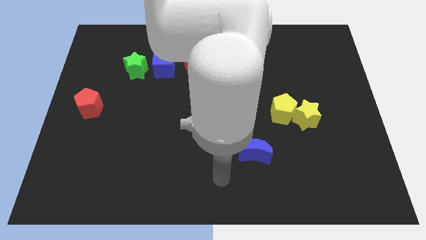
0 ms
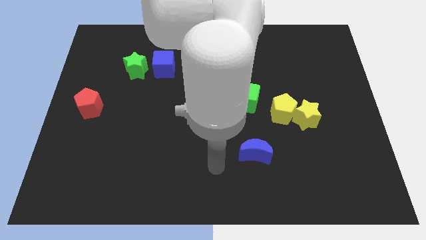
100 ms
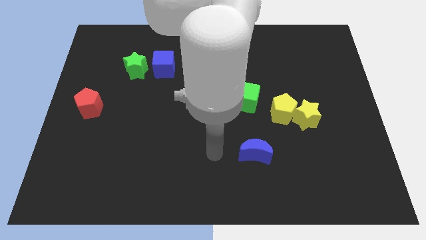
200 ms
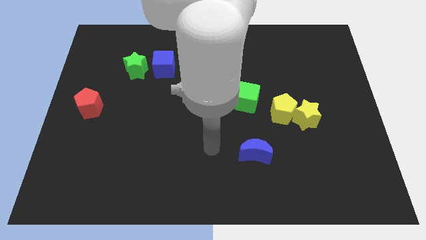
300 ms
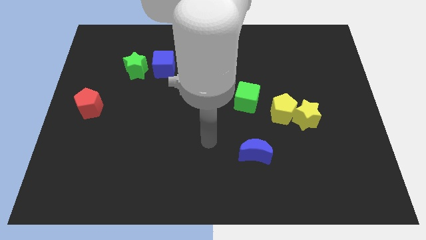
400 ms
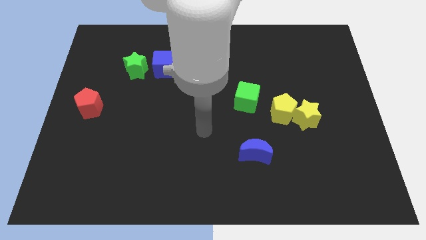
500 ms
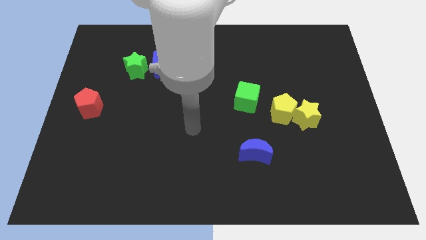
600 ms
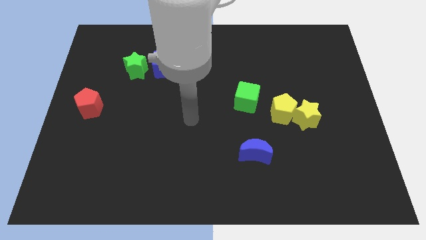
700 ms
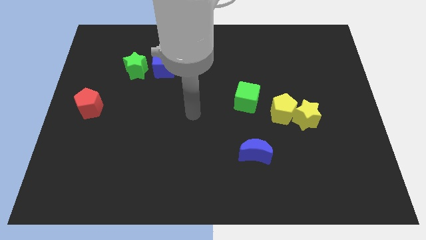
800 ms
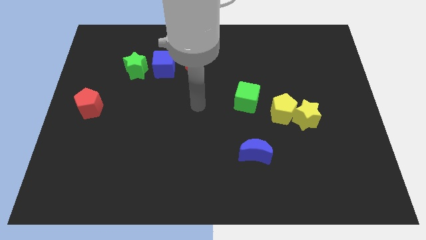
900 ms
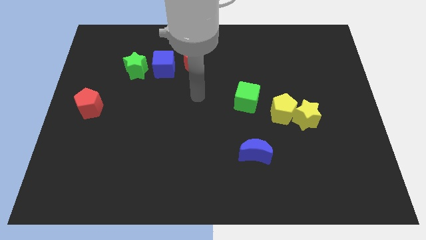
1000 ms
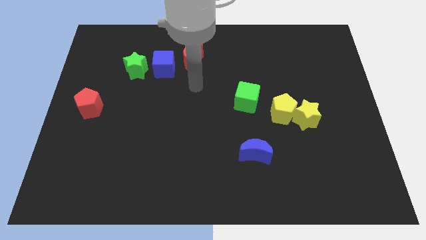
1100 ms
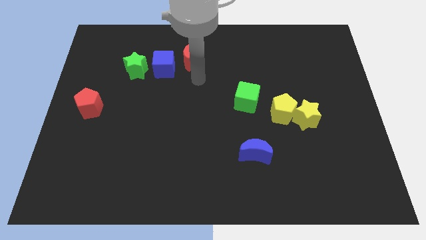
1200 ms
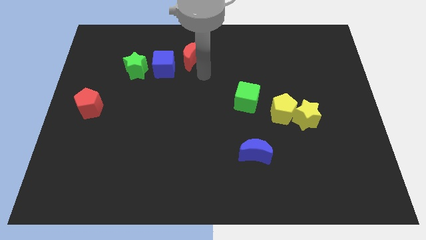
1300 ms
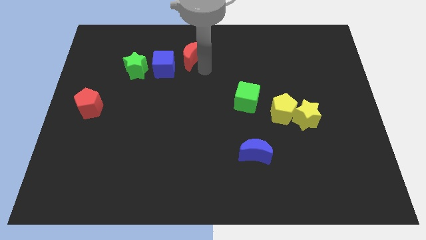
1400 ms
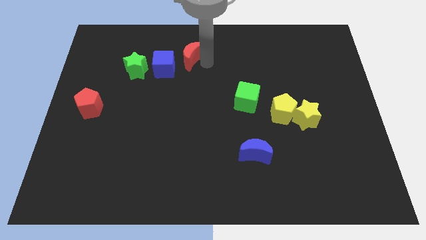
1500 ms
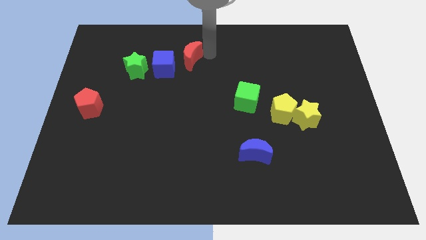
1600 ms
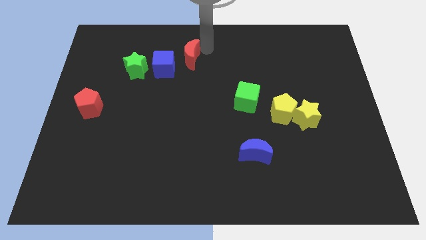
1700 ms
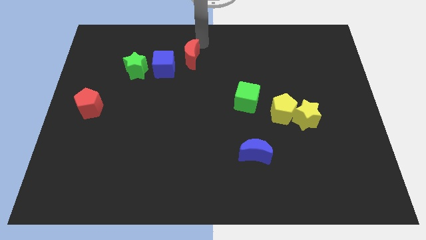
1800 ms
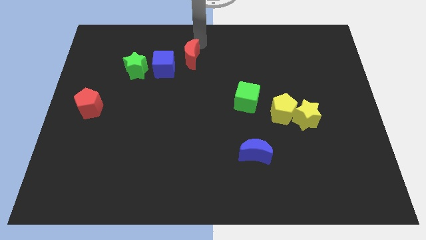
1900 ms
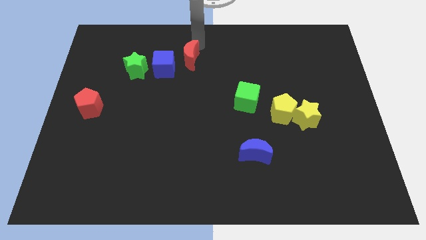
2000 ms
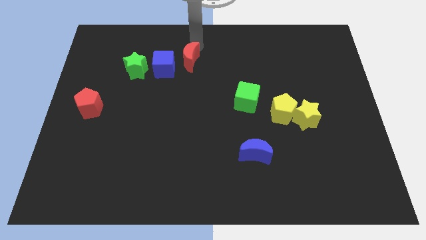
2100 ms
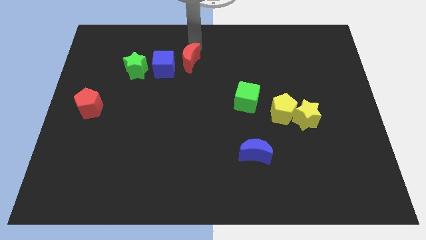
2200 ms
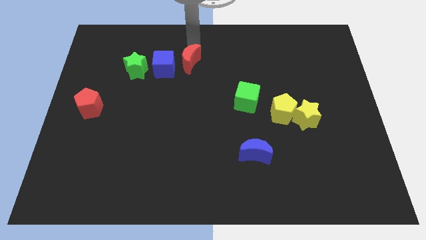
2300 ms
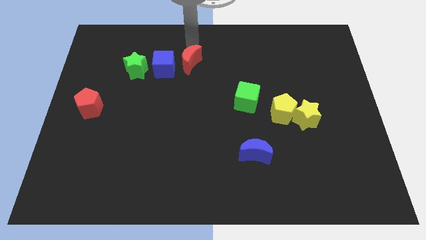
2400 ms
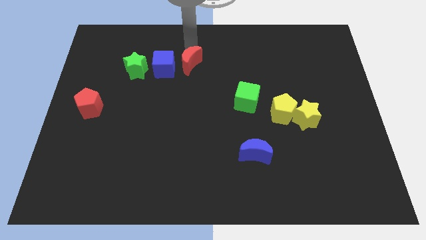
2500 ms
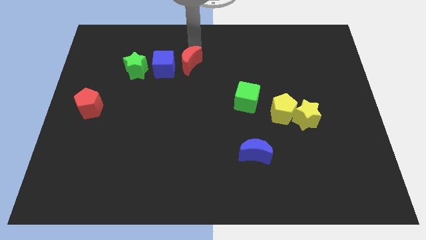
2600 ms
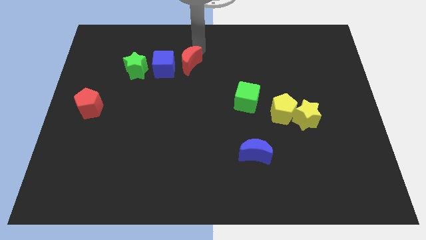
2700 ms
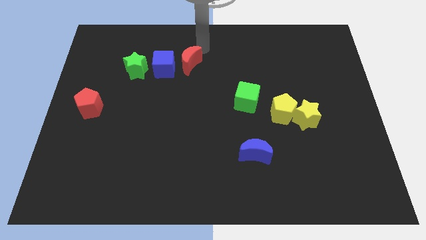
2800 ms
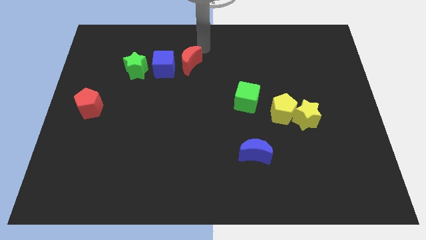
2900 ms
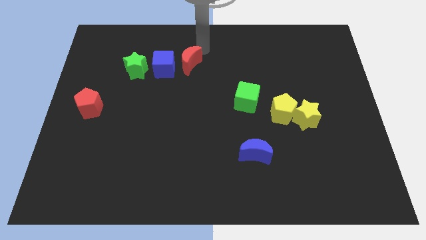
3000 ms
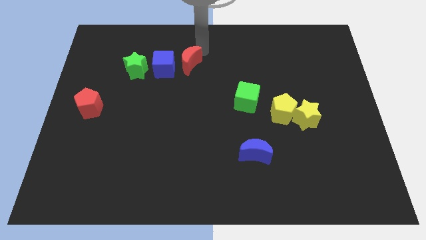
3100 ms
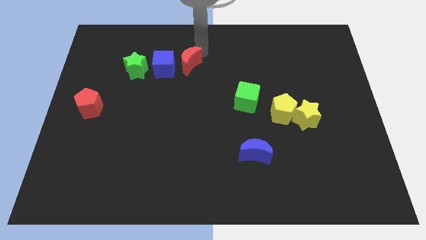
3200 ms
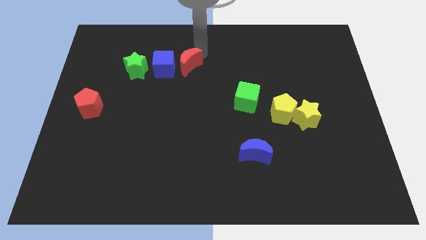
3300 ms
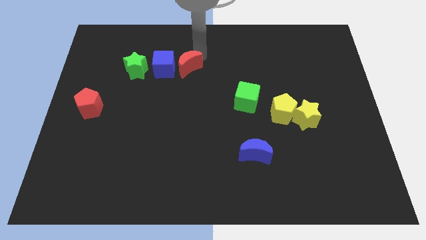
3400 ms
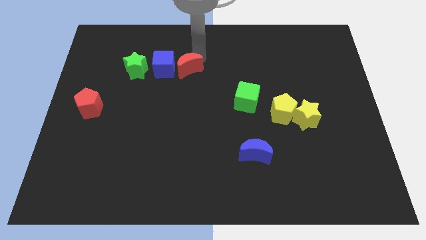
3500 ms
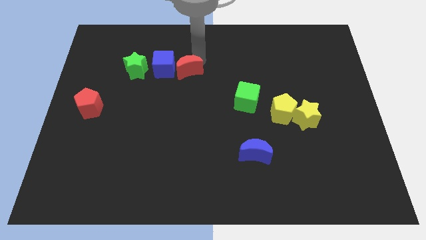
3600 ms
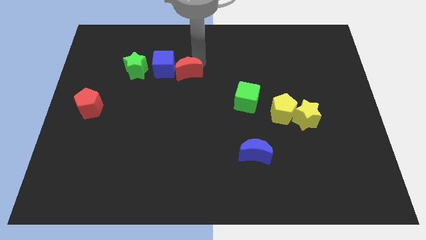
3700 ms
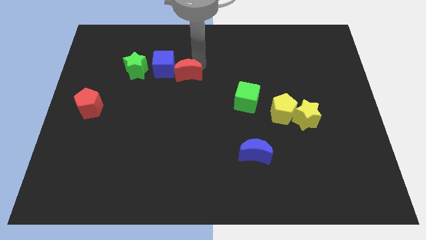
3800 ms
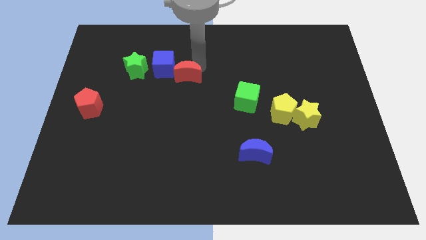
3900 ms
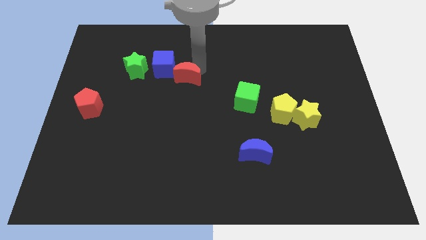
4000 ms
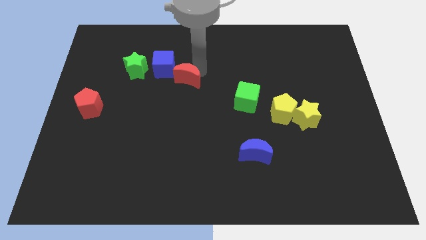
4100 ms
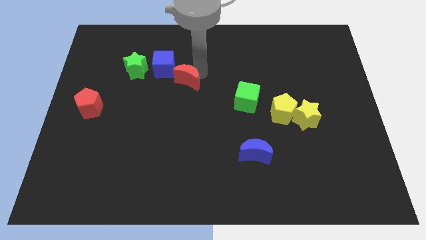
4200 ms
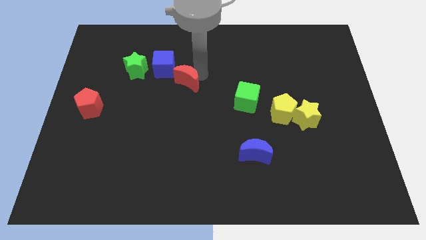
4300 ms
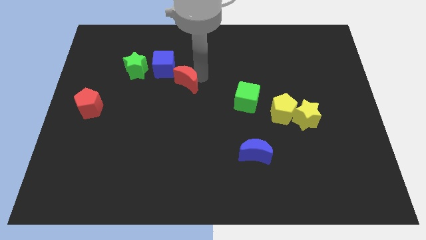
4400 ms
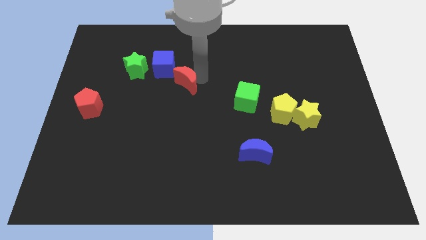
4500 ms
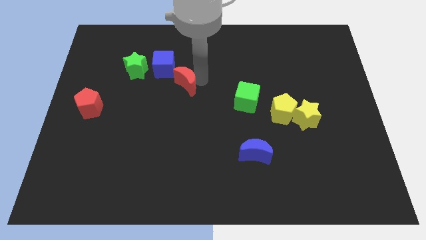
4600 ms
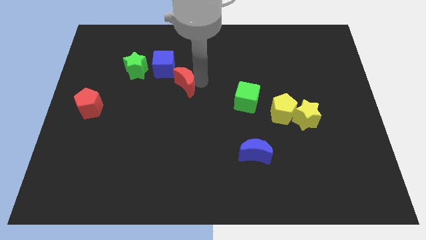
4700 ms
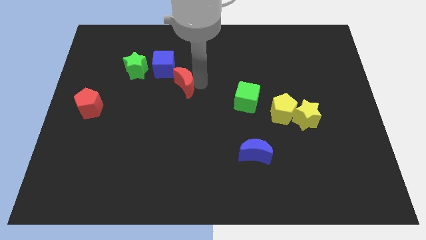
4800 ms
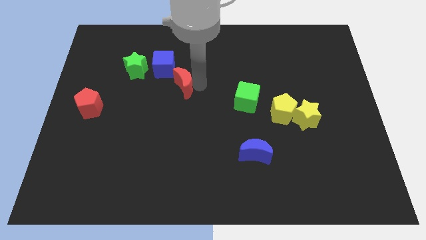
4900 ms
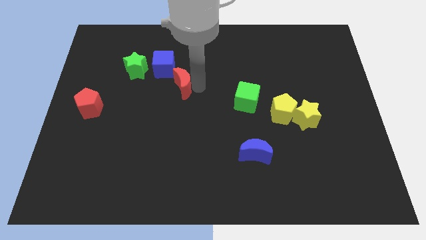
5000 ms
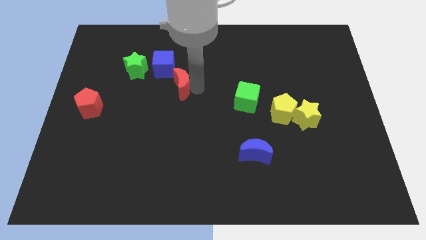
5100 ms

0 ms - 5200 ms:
move the red moon a little bit down and left

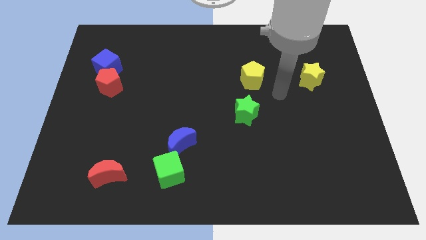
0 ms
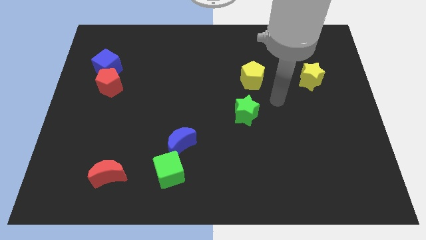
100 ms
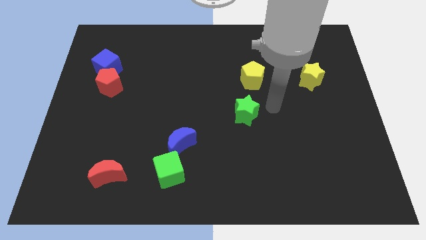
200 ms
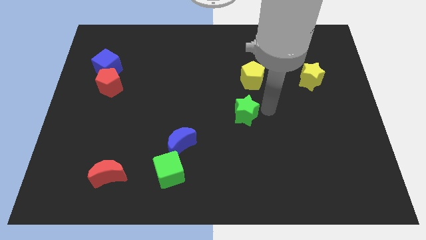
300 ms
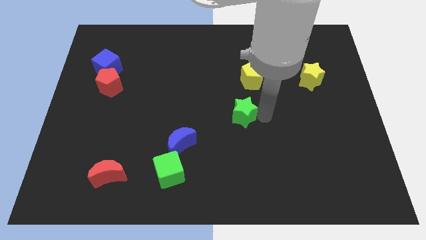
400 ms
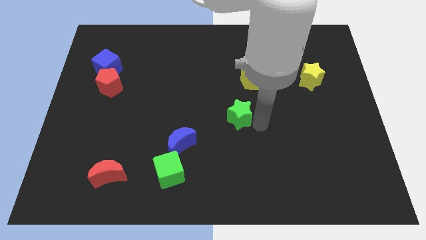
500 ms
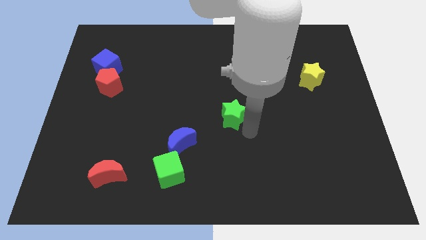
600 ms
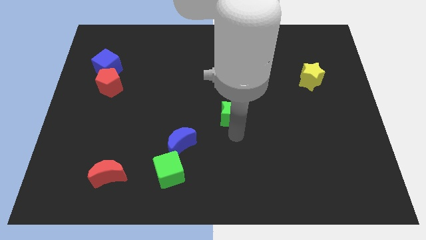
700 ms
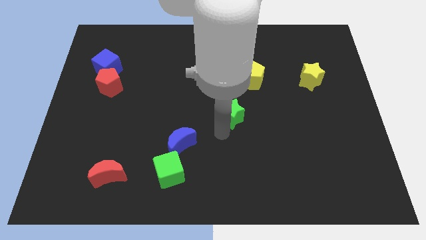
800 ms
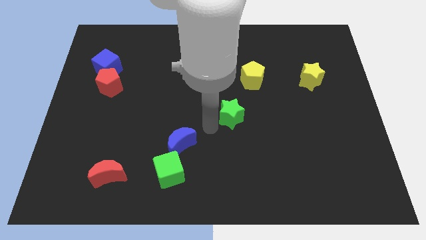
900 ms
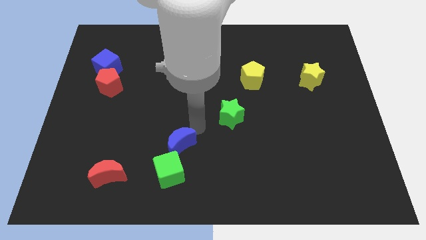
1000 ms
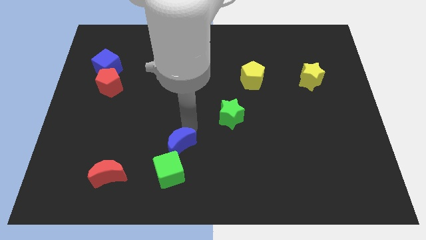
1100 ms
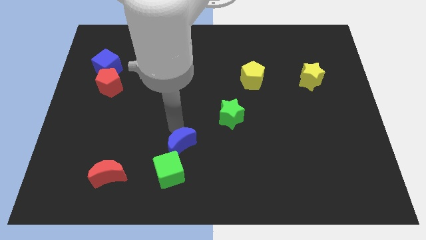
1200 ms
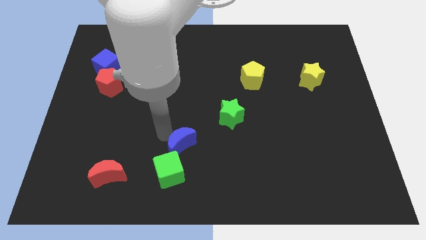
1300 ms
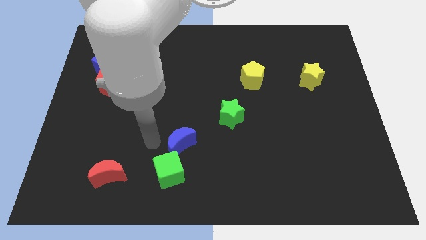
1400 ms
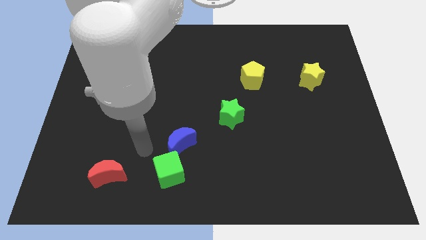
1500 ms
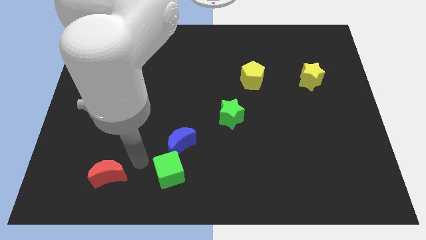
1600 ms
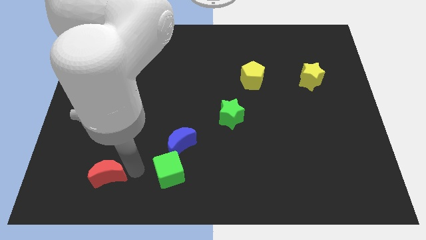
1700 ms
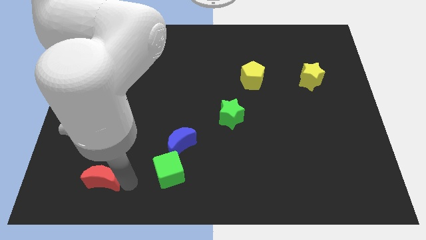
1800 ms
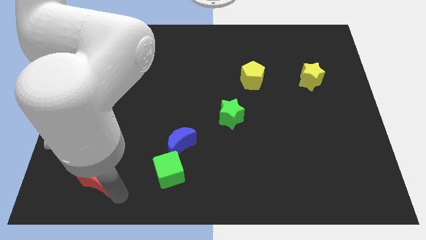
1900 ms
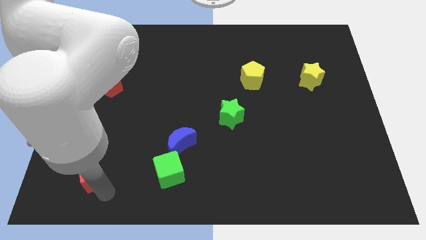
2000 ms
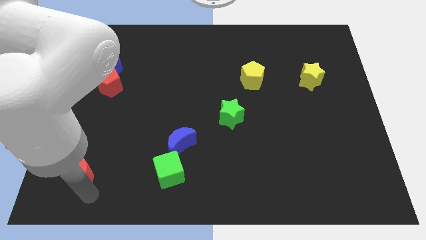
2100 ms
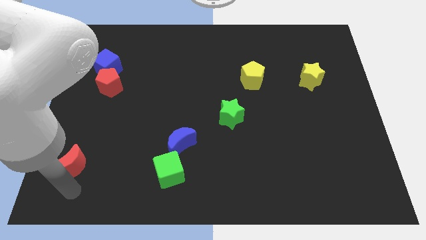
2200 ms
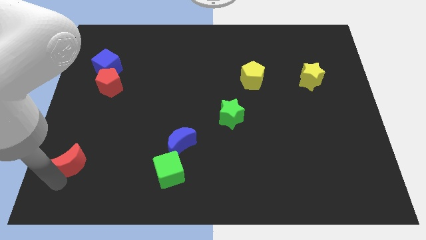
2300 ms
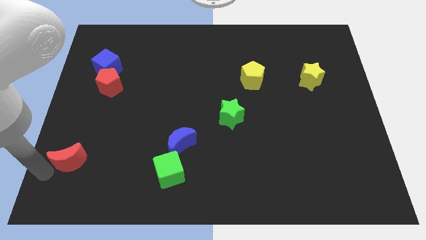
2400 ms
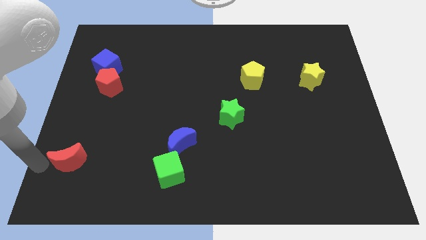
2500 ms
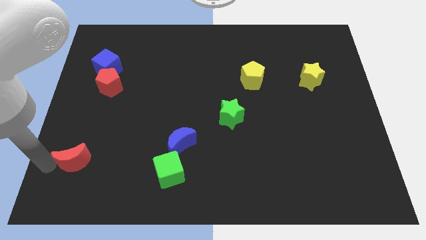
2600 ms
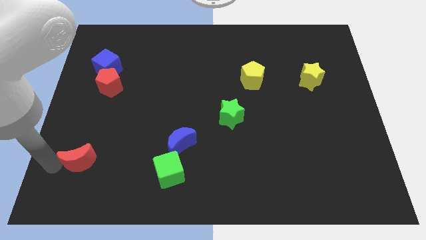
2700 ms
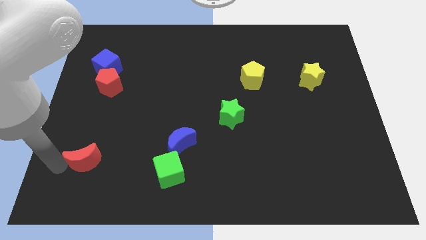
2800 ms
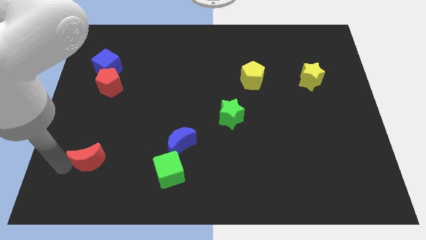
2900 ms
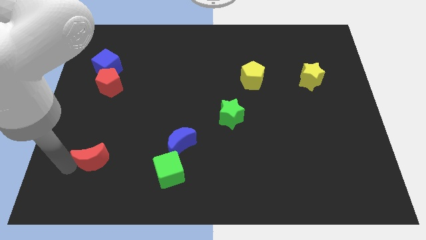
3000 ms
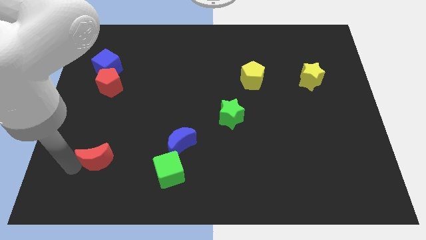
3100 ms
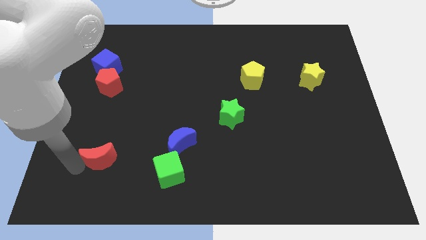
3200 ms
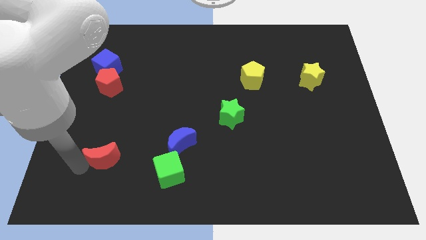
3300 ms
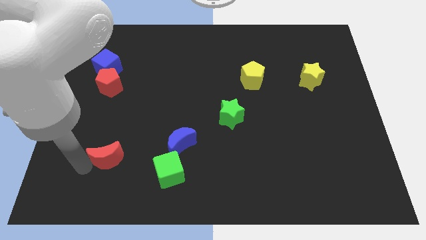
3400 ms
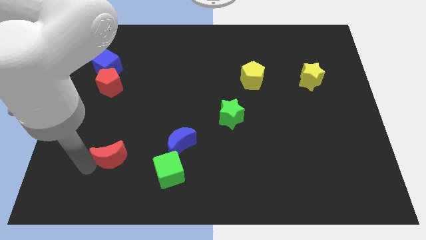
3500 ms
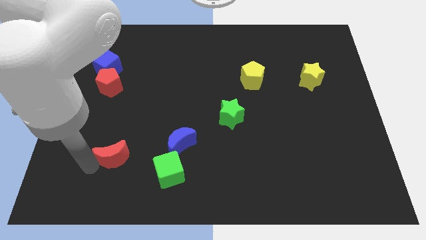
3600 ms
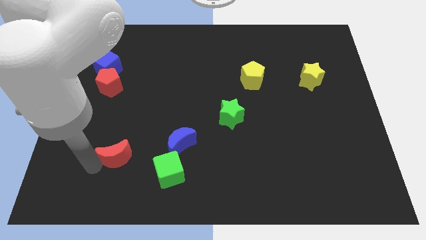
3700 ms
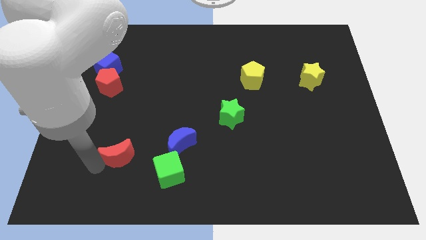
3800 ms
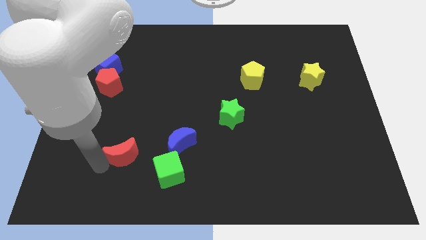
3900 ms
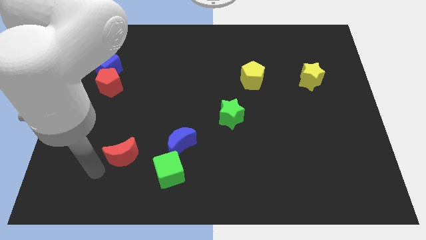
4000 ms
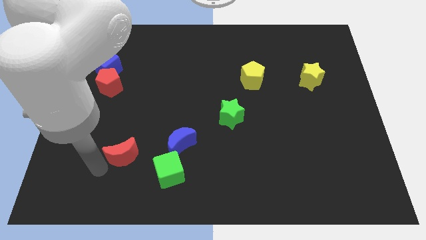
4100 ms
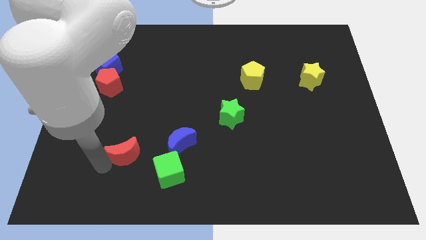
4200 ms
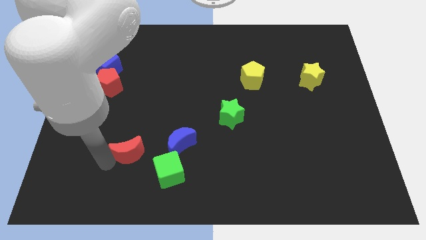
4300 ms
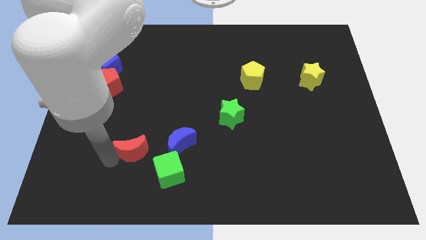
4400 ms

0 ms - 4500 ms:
slightly move the red moon upwards and then to the right
